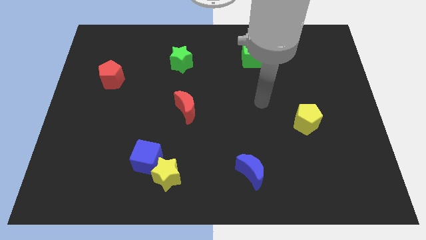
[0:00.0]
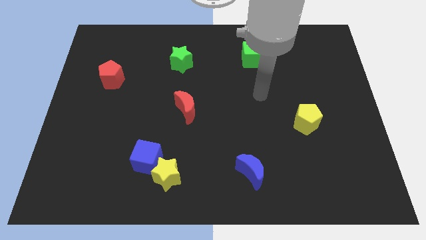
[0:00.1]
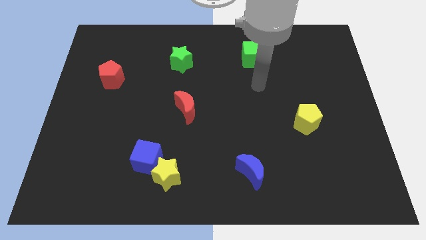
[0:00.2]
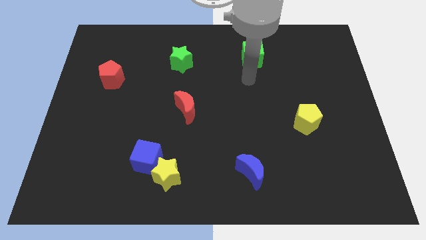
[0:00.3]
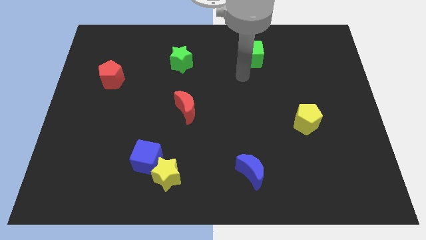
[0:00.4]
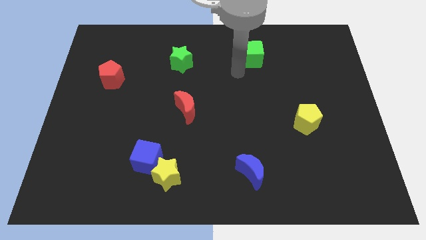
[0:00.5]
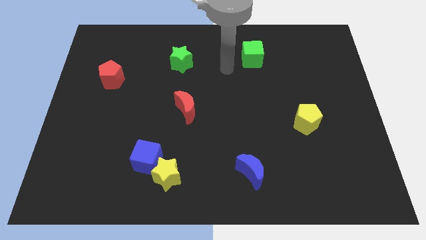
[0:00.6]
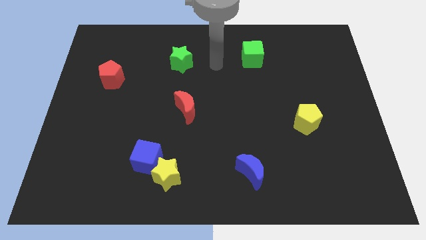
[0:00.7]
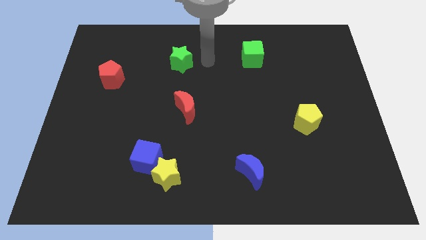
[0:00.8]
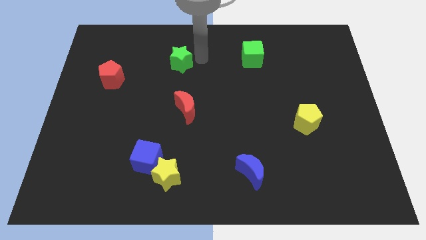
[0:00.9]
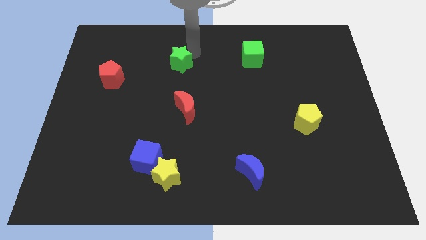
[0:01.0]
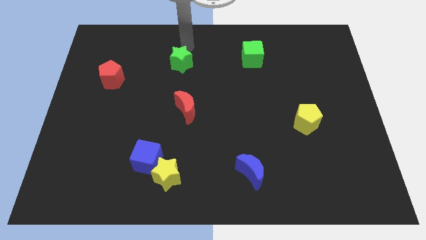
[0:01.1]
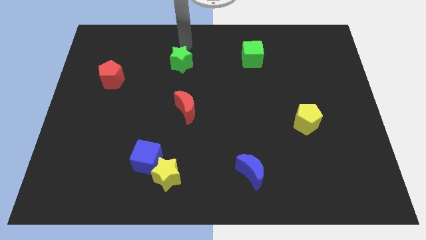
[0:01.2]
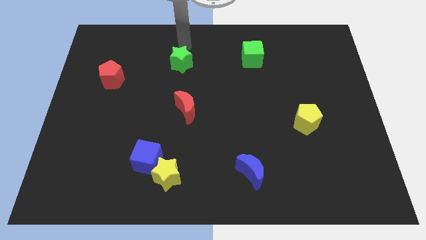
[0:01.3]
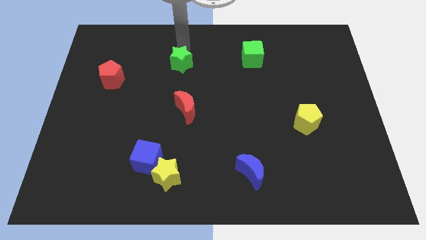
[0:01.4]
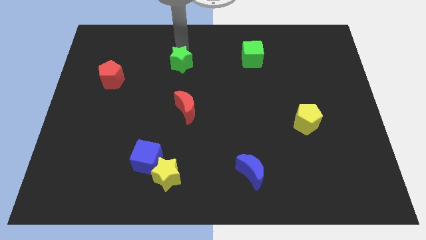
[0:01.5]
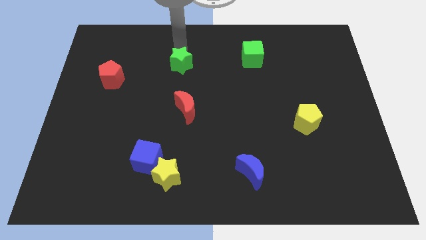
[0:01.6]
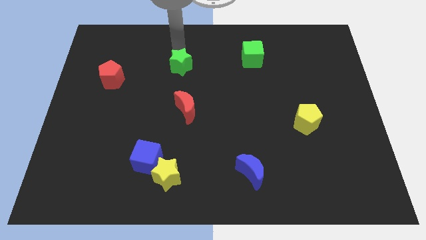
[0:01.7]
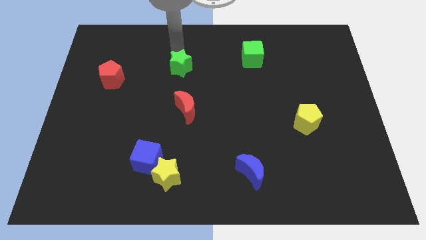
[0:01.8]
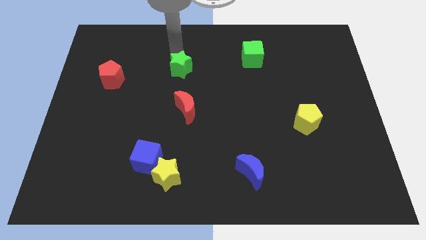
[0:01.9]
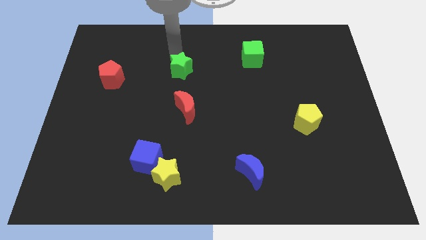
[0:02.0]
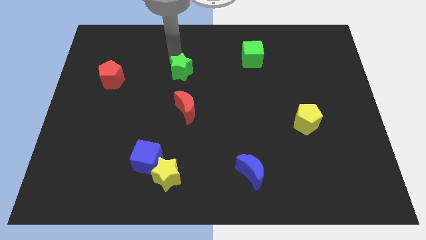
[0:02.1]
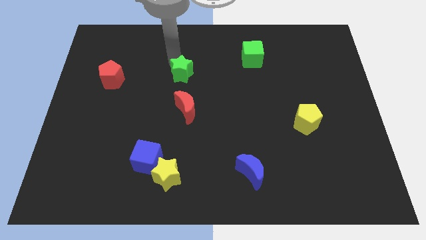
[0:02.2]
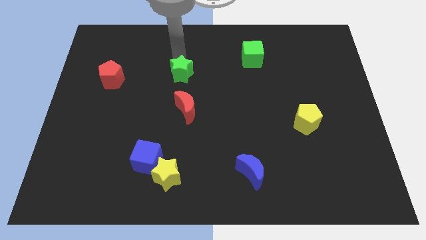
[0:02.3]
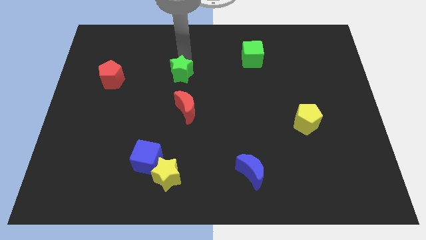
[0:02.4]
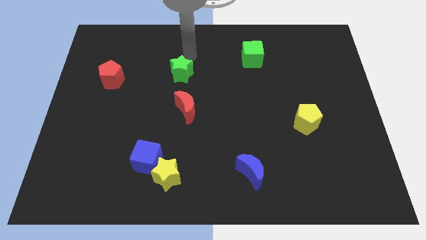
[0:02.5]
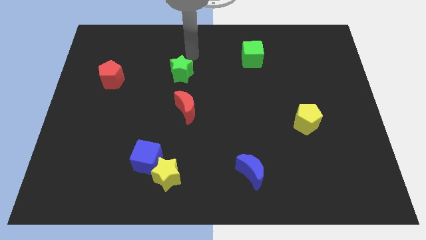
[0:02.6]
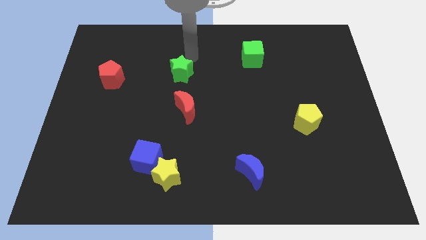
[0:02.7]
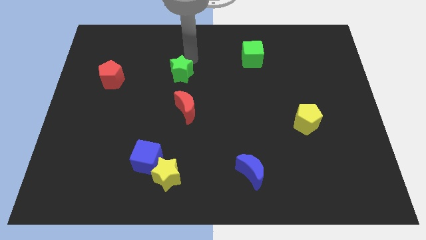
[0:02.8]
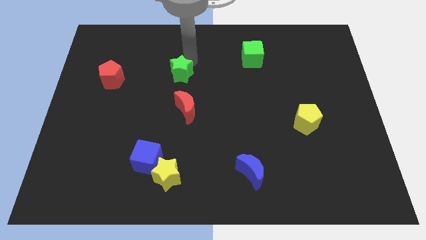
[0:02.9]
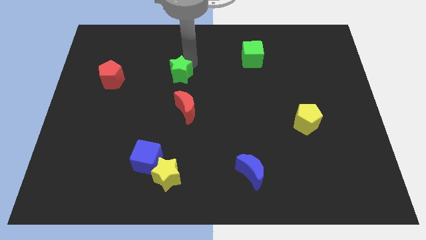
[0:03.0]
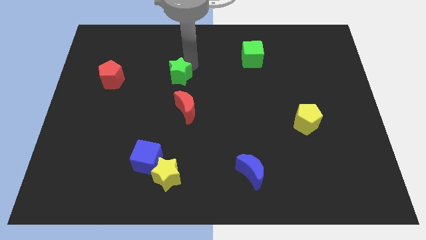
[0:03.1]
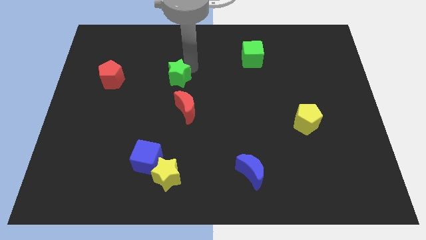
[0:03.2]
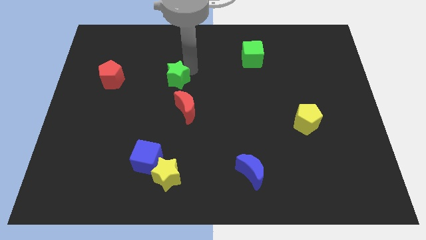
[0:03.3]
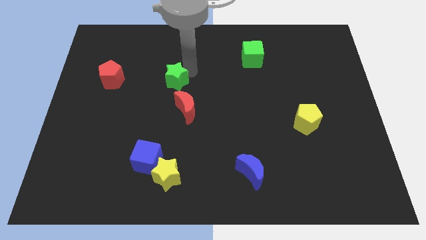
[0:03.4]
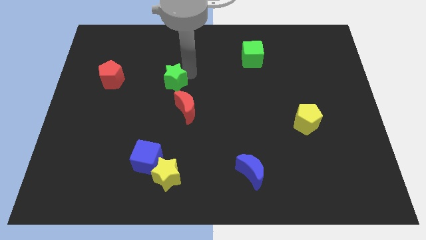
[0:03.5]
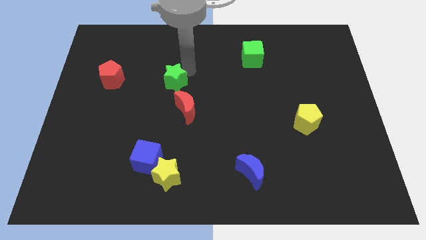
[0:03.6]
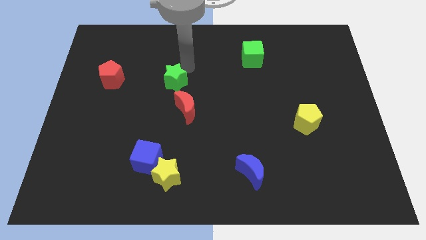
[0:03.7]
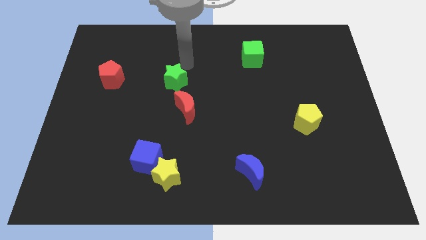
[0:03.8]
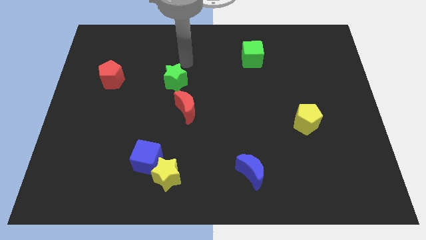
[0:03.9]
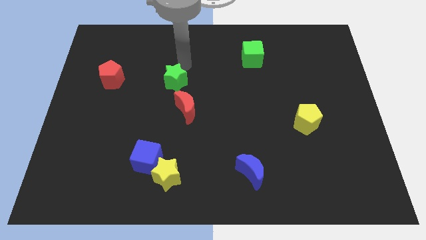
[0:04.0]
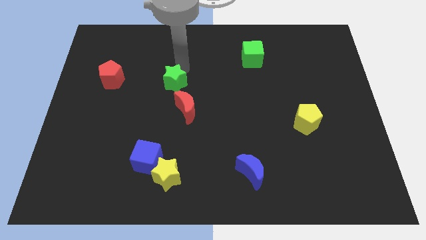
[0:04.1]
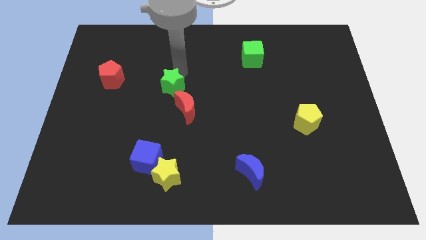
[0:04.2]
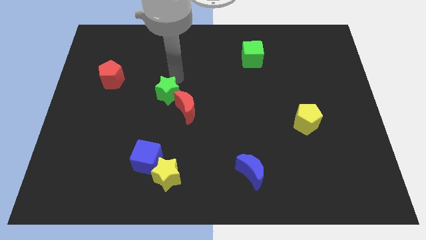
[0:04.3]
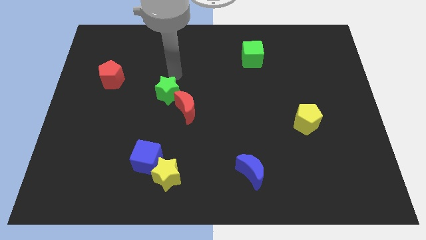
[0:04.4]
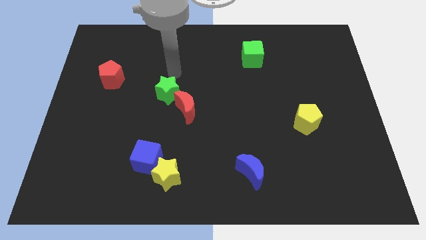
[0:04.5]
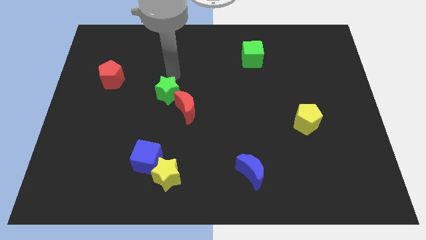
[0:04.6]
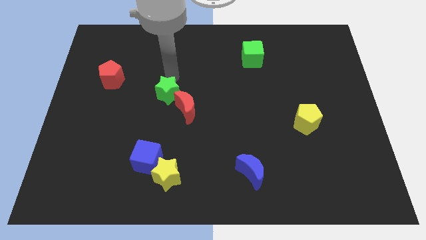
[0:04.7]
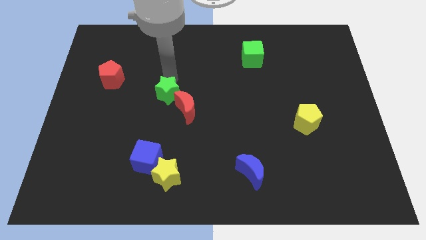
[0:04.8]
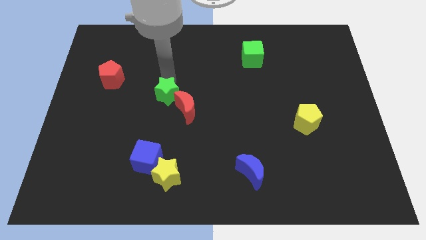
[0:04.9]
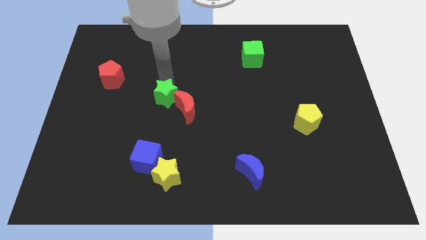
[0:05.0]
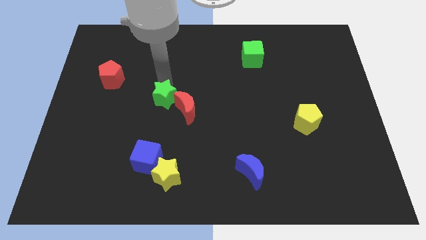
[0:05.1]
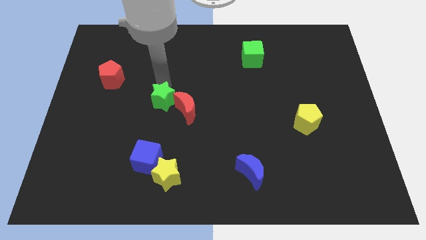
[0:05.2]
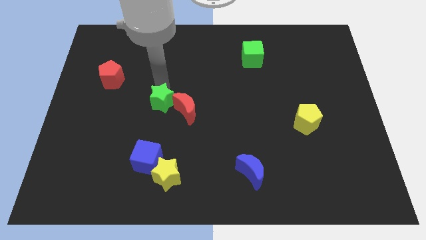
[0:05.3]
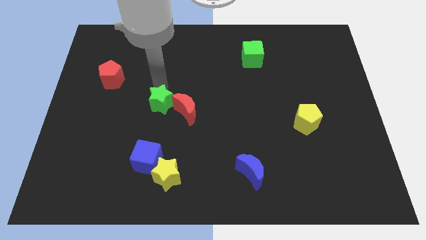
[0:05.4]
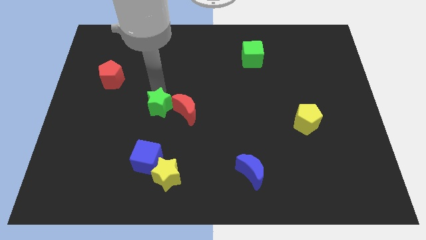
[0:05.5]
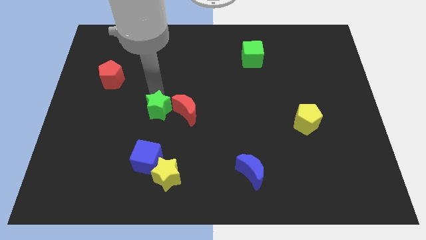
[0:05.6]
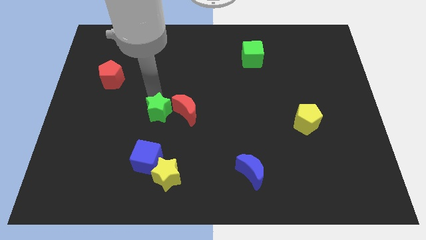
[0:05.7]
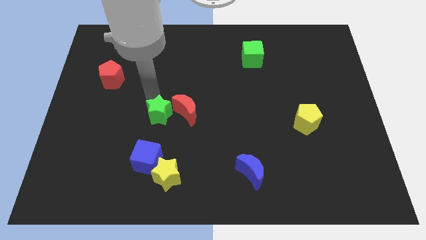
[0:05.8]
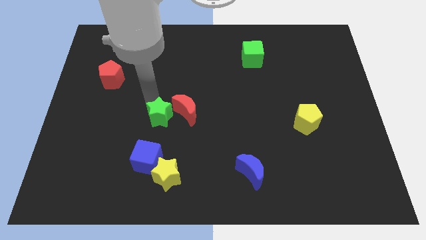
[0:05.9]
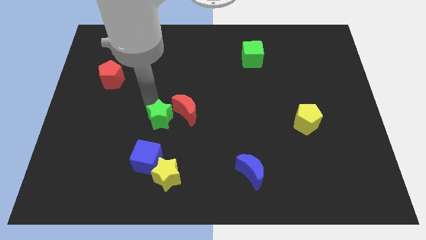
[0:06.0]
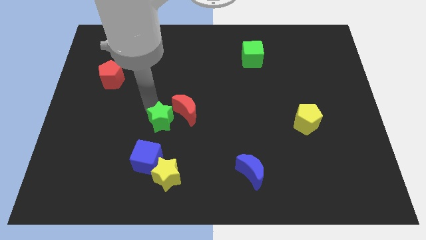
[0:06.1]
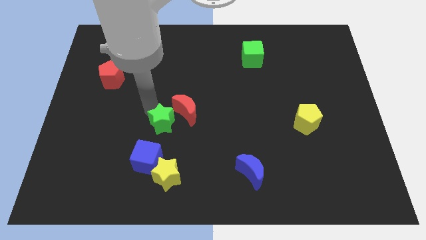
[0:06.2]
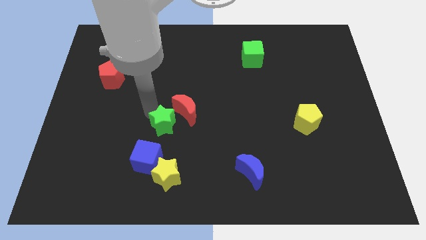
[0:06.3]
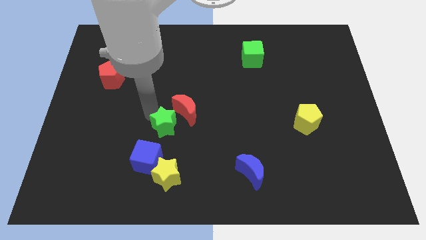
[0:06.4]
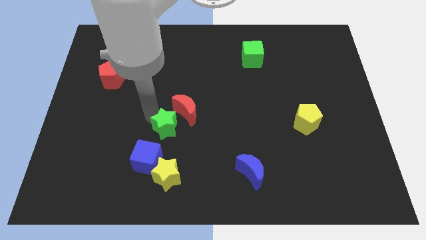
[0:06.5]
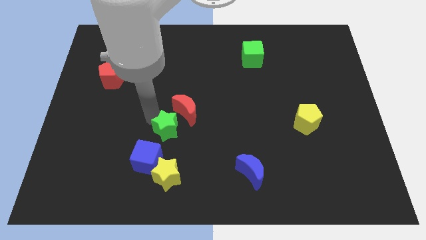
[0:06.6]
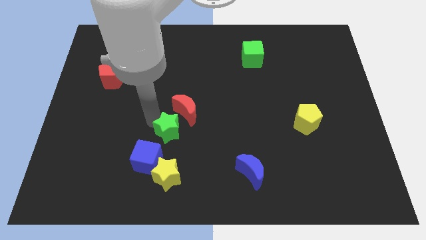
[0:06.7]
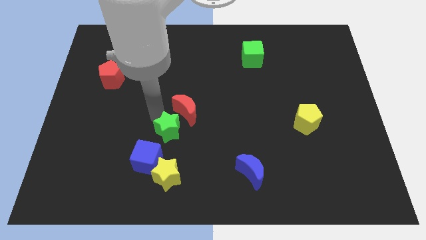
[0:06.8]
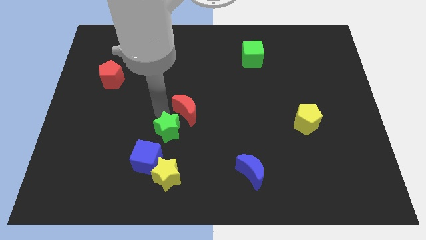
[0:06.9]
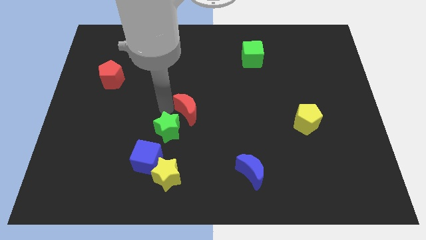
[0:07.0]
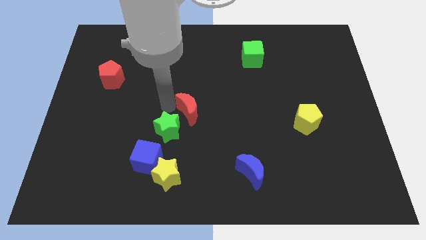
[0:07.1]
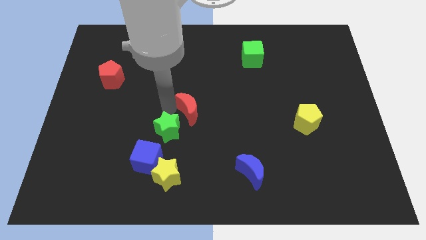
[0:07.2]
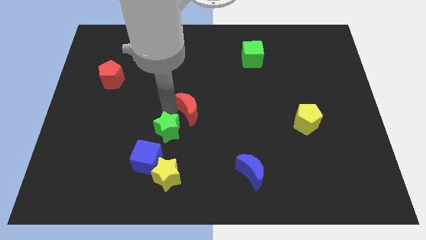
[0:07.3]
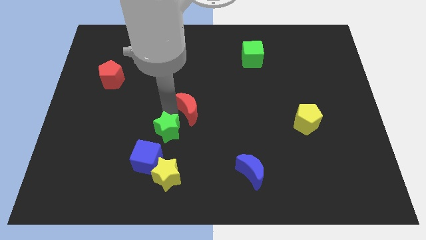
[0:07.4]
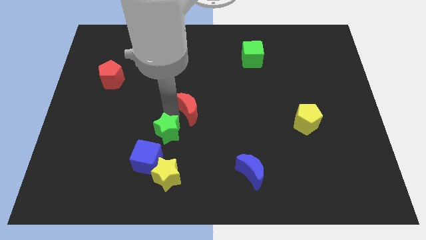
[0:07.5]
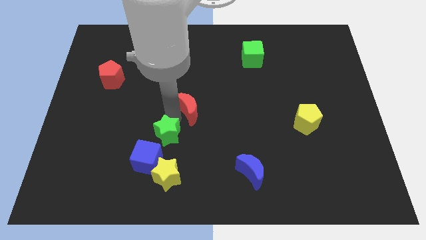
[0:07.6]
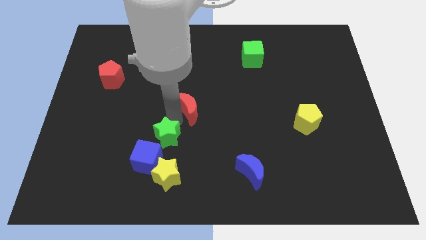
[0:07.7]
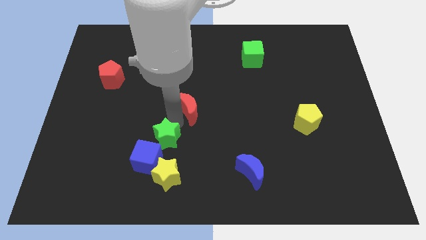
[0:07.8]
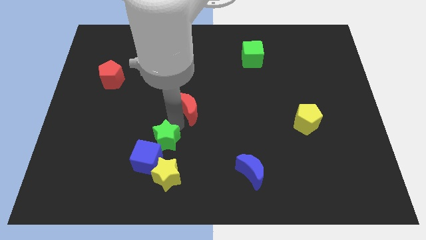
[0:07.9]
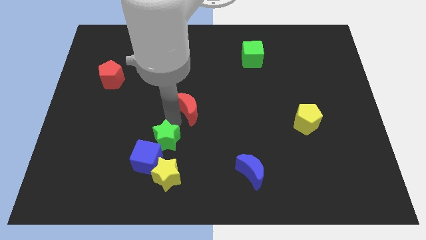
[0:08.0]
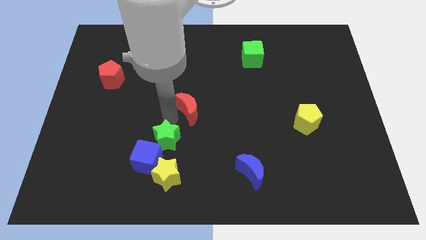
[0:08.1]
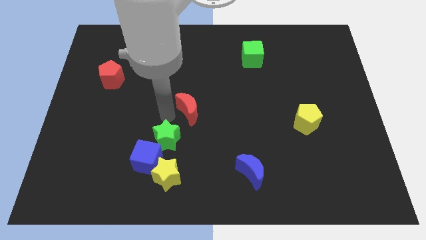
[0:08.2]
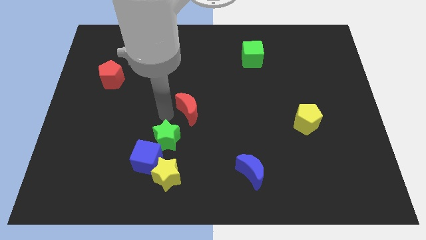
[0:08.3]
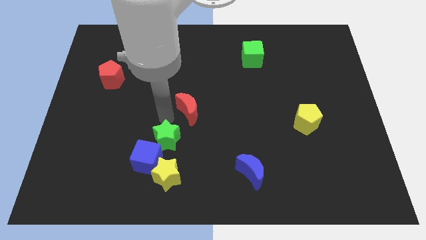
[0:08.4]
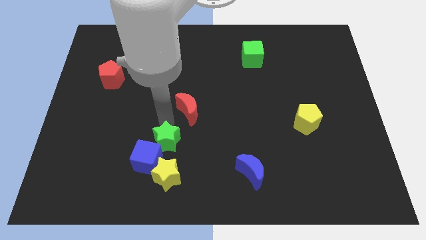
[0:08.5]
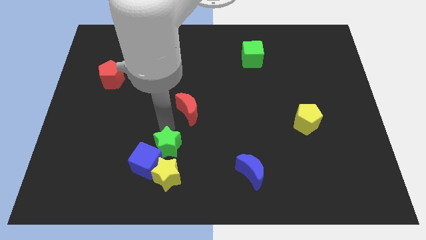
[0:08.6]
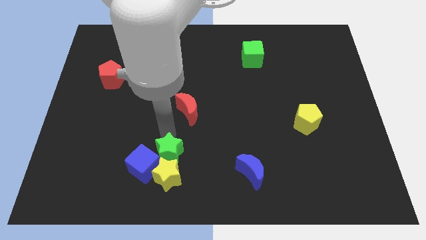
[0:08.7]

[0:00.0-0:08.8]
push the green star to the yellow star
